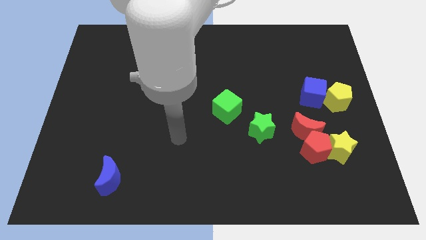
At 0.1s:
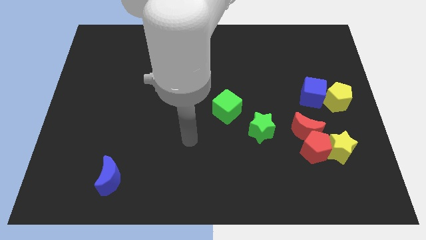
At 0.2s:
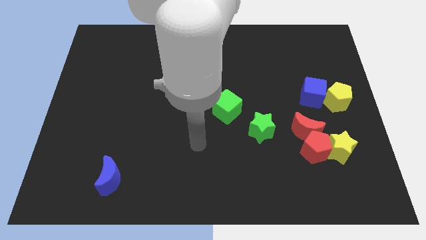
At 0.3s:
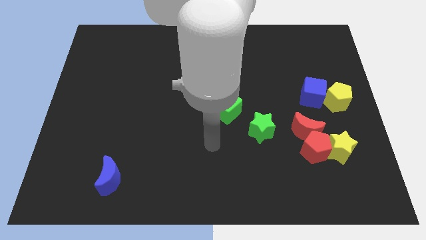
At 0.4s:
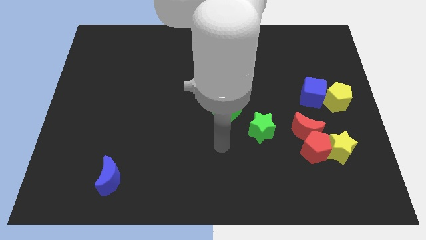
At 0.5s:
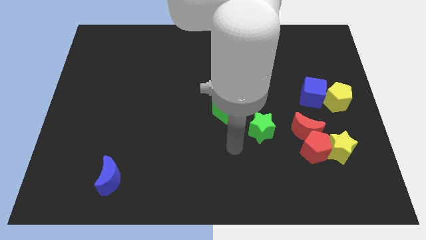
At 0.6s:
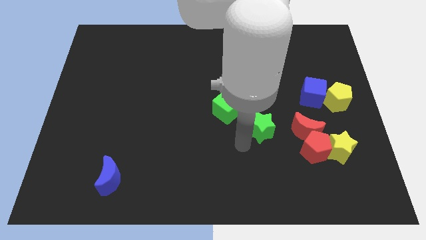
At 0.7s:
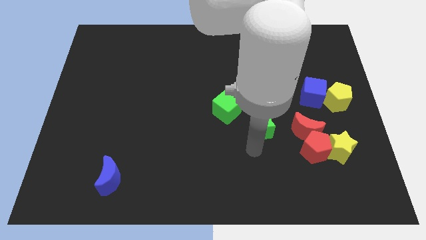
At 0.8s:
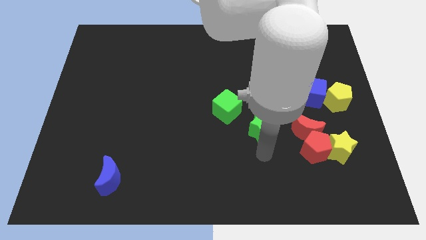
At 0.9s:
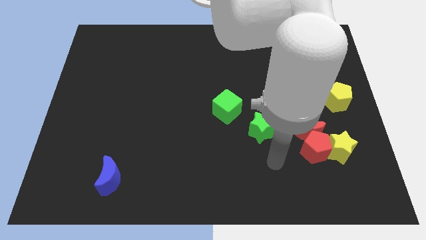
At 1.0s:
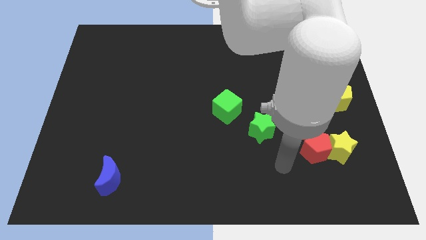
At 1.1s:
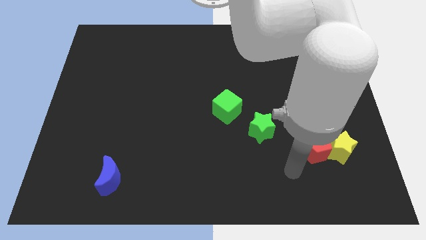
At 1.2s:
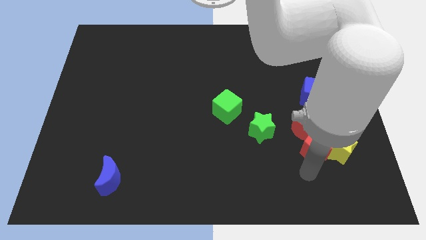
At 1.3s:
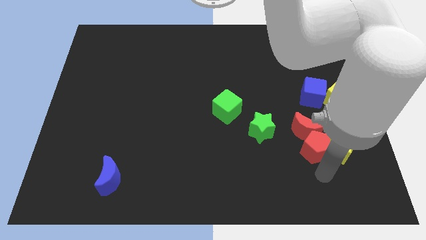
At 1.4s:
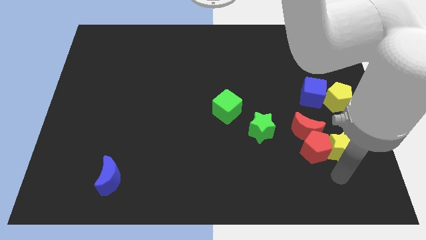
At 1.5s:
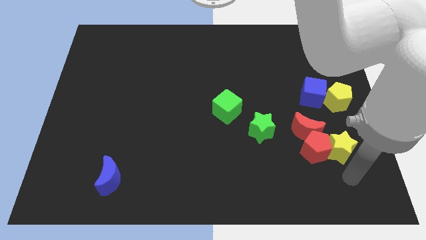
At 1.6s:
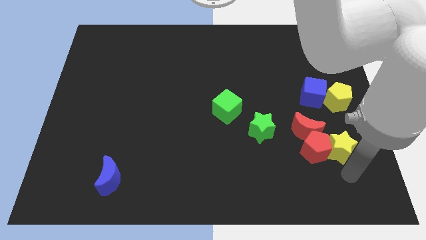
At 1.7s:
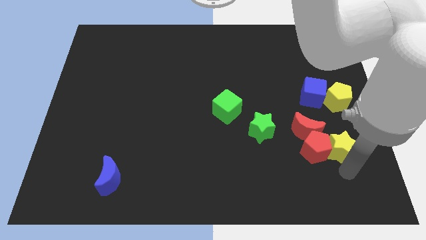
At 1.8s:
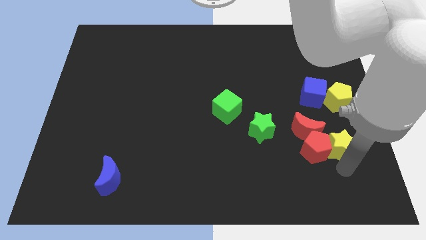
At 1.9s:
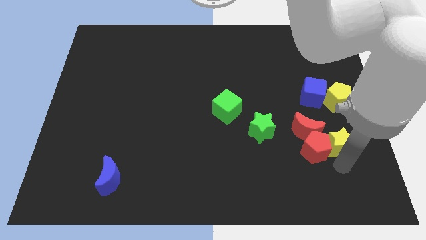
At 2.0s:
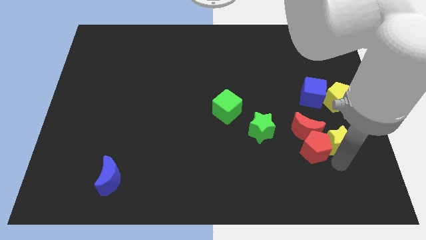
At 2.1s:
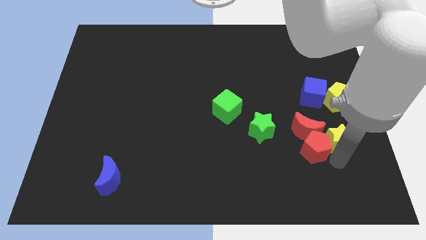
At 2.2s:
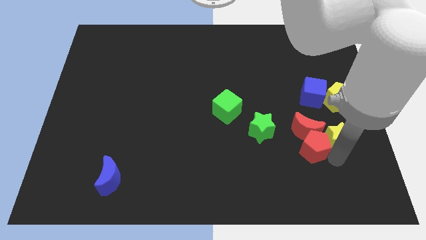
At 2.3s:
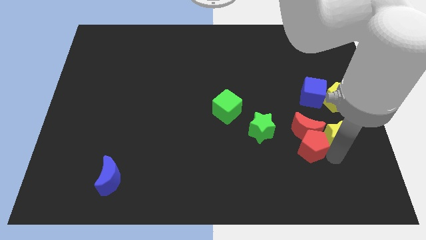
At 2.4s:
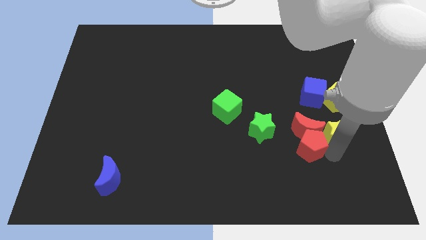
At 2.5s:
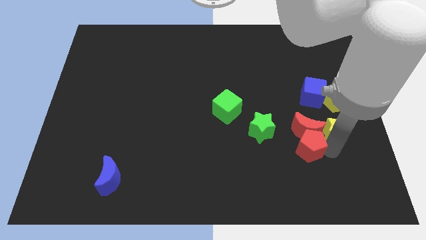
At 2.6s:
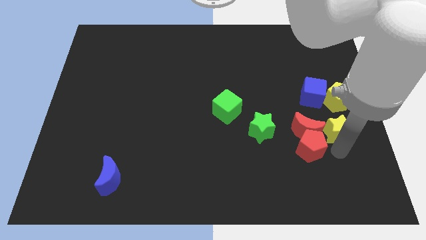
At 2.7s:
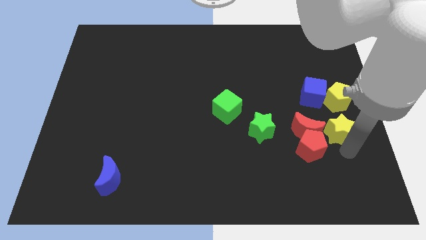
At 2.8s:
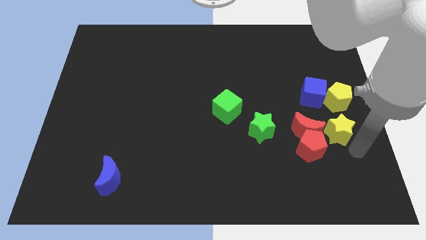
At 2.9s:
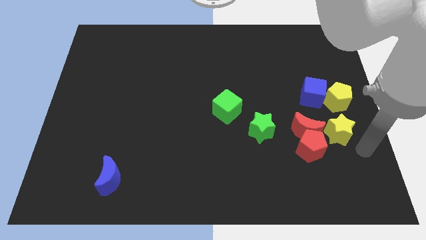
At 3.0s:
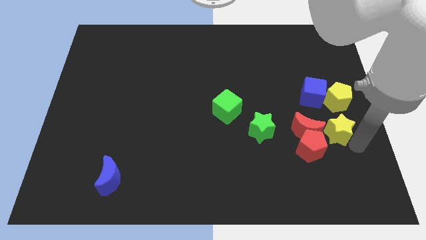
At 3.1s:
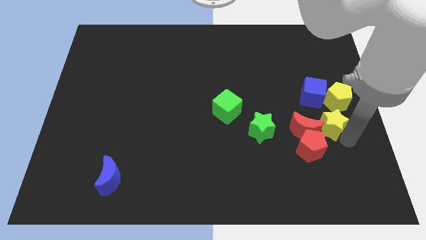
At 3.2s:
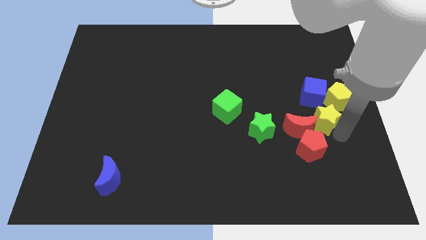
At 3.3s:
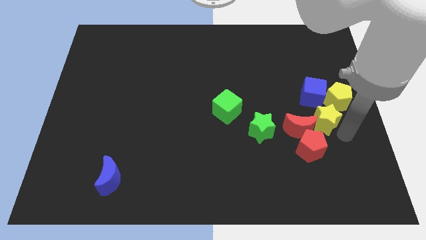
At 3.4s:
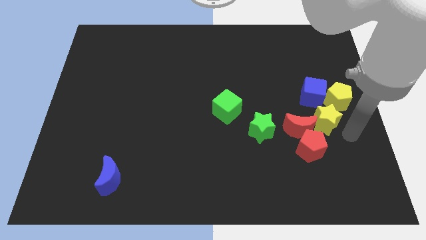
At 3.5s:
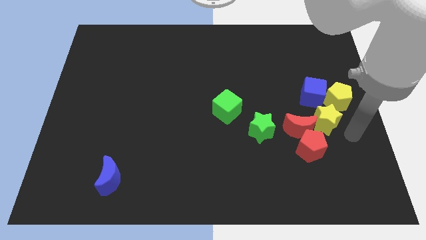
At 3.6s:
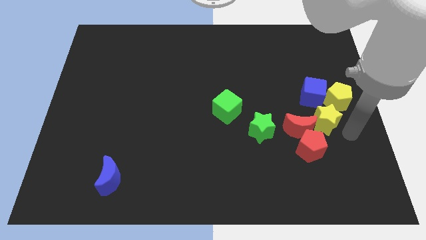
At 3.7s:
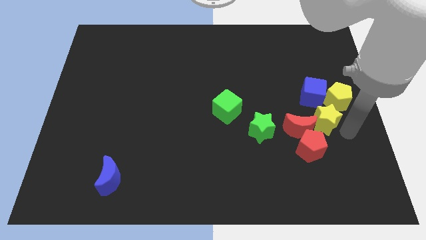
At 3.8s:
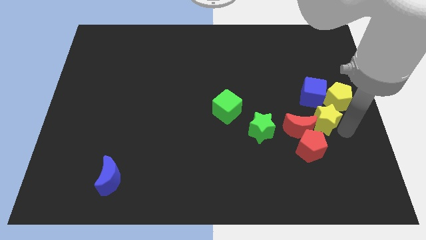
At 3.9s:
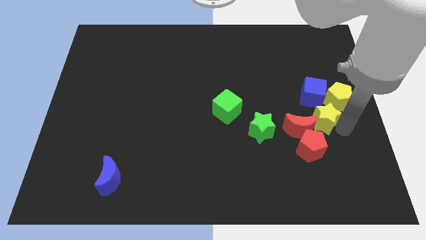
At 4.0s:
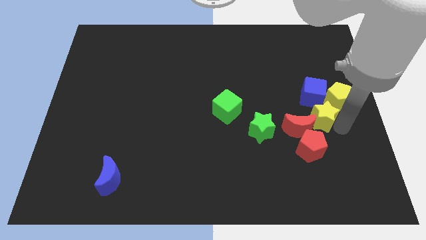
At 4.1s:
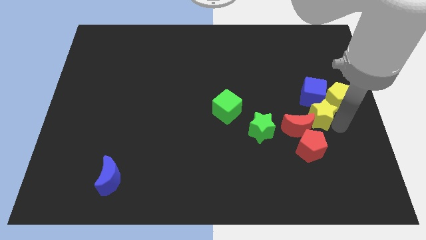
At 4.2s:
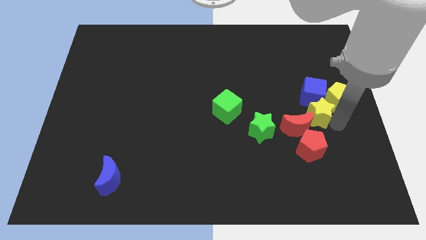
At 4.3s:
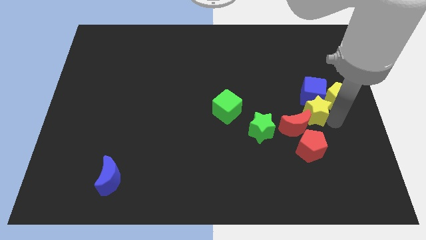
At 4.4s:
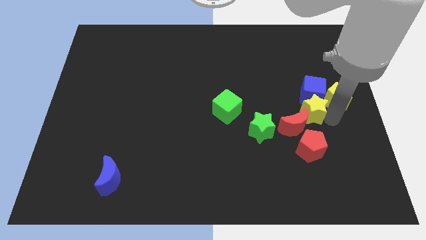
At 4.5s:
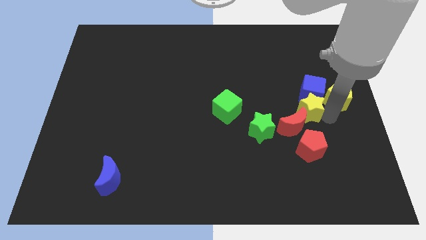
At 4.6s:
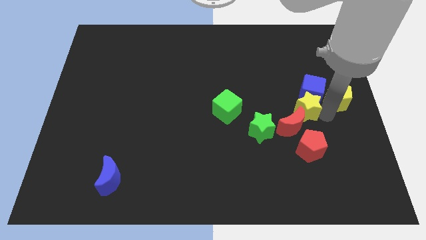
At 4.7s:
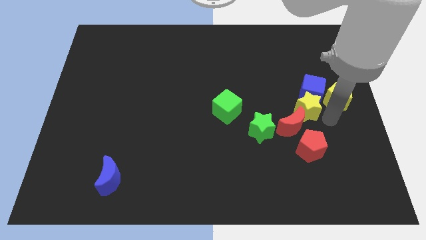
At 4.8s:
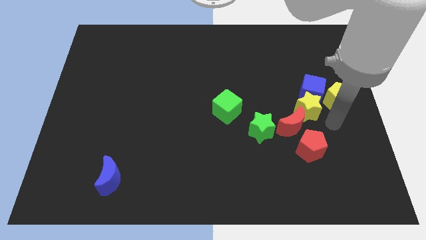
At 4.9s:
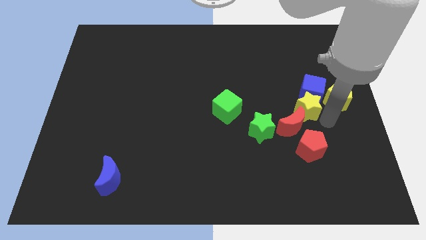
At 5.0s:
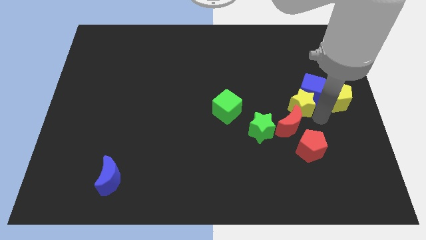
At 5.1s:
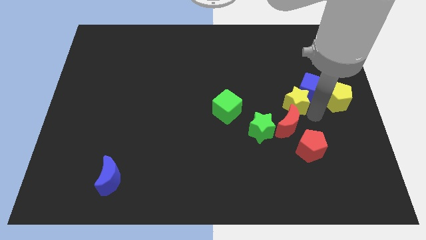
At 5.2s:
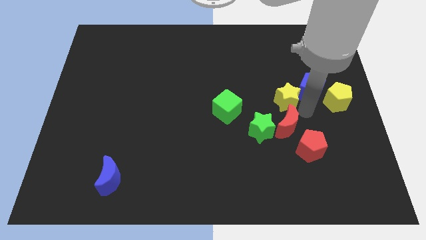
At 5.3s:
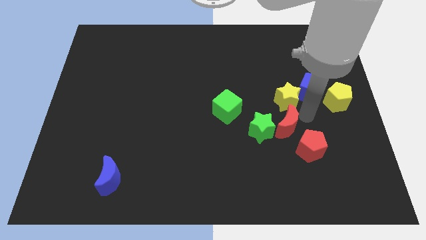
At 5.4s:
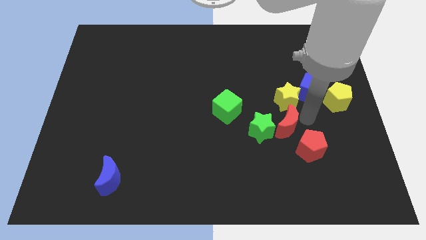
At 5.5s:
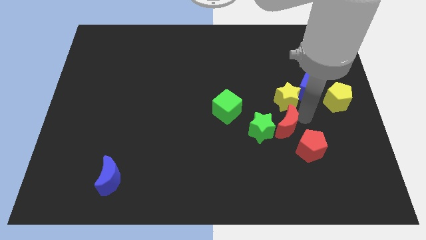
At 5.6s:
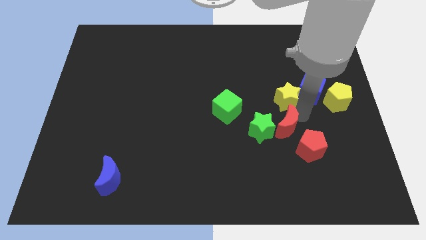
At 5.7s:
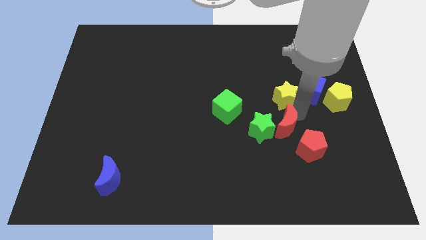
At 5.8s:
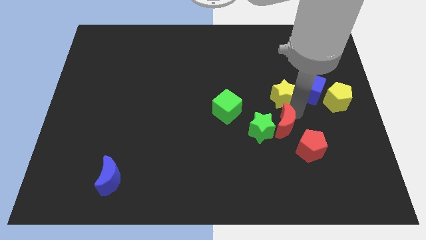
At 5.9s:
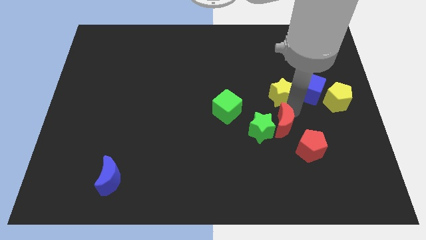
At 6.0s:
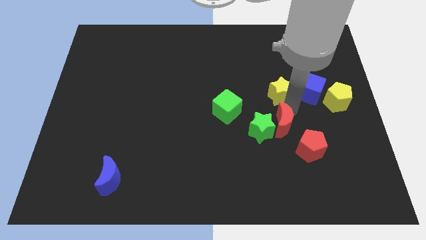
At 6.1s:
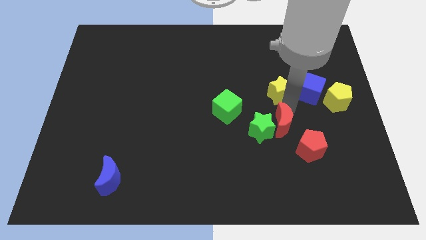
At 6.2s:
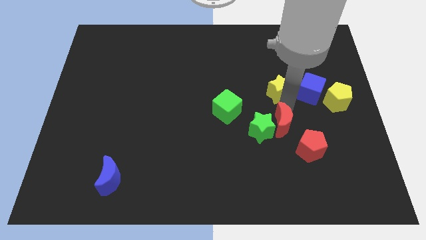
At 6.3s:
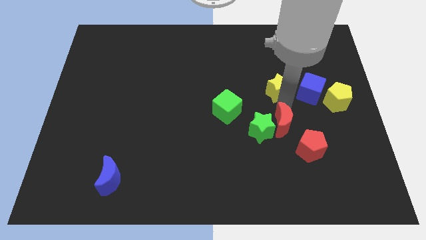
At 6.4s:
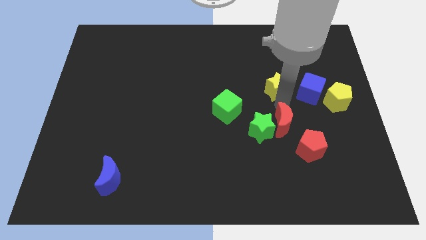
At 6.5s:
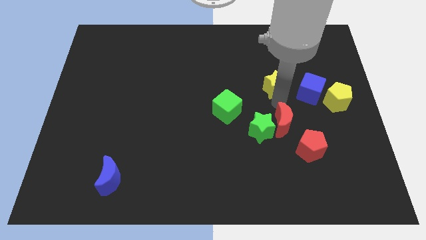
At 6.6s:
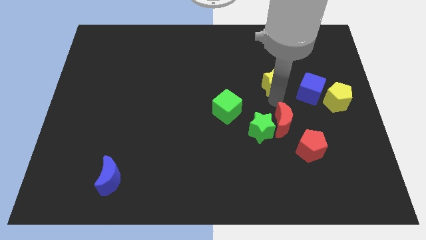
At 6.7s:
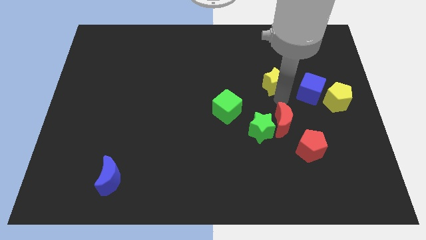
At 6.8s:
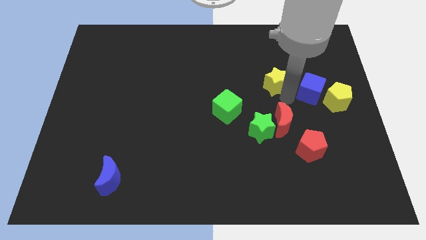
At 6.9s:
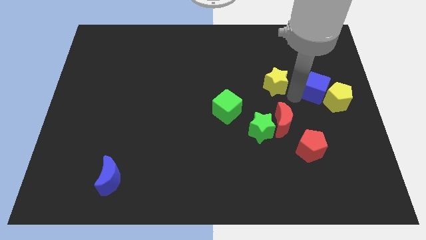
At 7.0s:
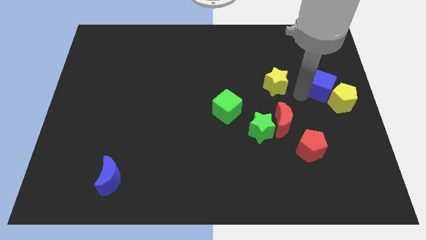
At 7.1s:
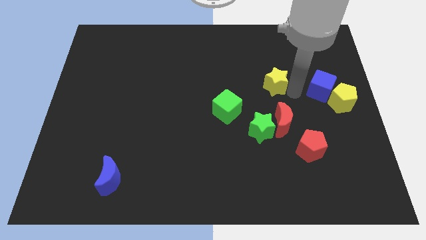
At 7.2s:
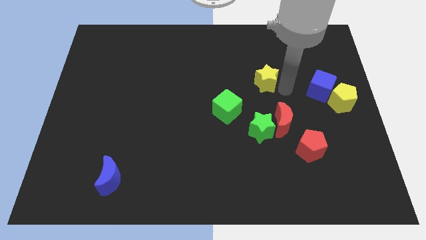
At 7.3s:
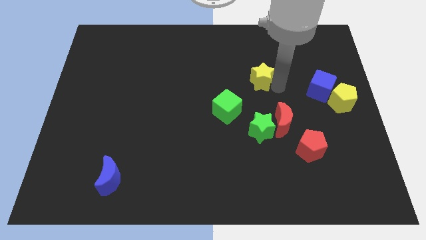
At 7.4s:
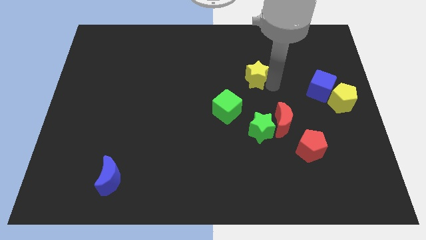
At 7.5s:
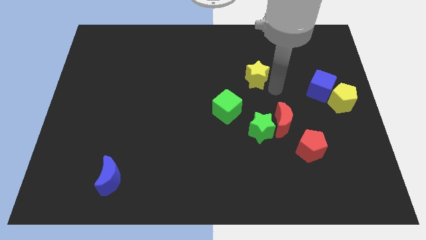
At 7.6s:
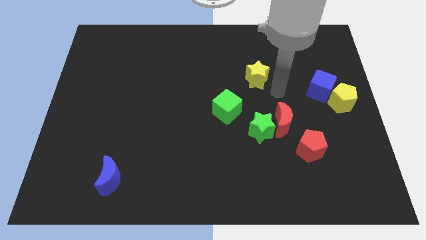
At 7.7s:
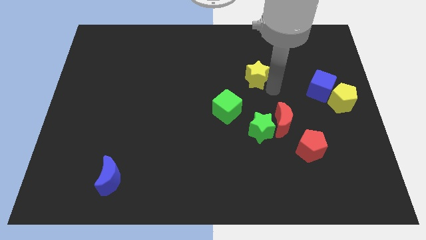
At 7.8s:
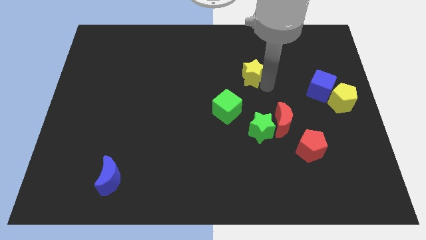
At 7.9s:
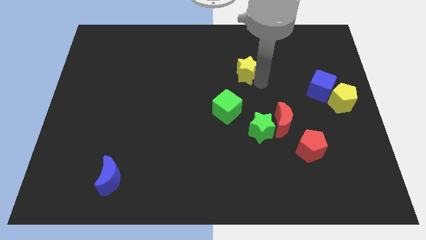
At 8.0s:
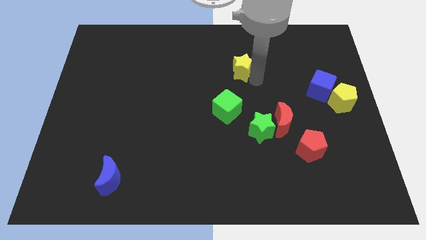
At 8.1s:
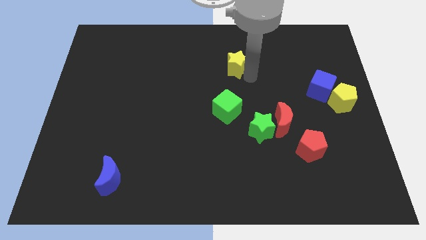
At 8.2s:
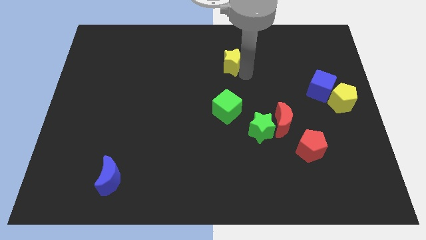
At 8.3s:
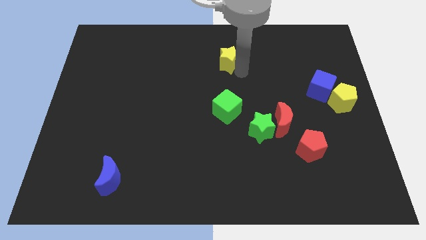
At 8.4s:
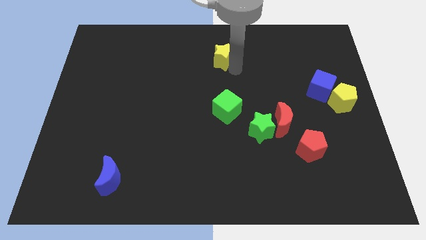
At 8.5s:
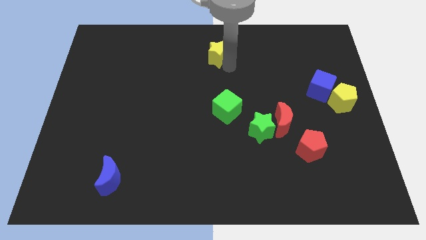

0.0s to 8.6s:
put the yellow star to the top
